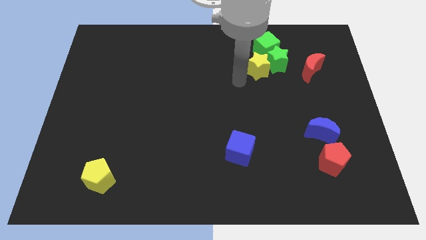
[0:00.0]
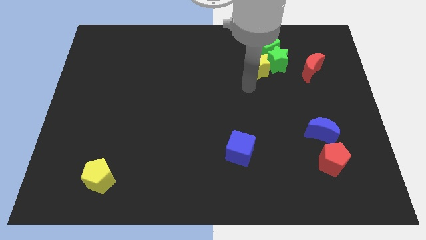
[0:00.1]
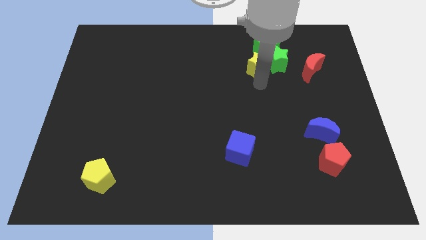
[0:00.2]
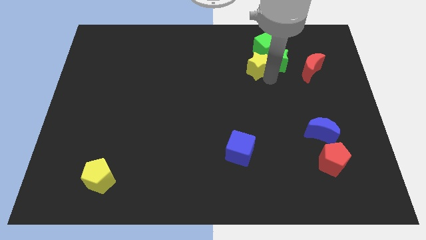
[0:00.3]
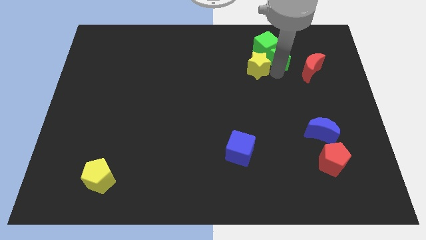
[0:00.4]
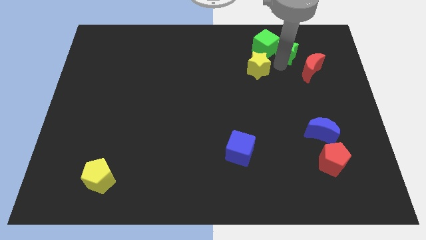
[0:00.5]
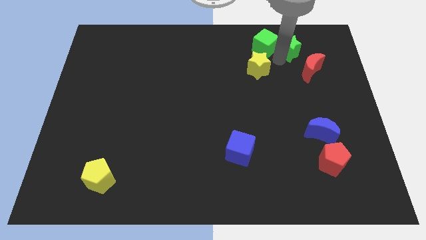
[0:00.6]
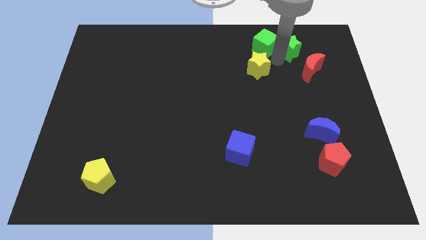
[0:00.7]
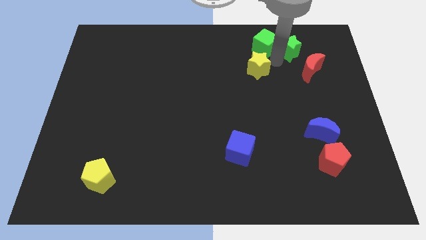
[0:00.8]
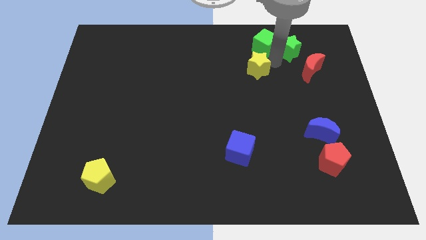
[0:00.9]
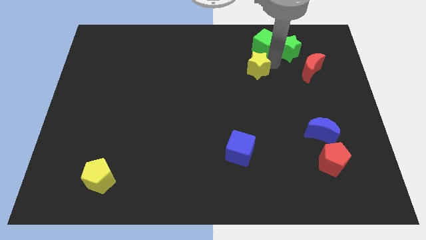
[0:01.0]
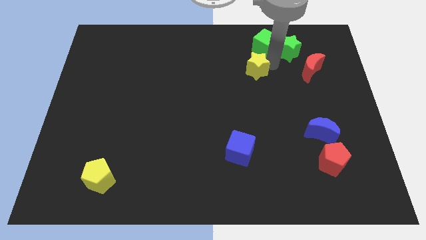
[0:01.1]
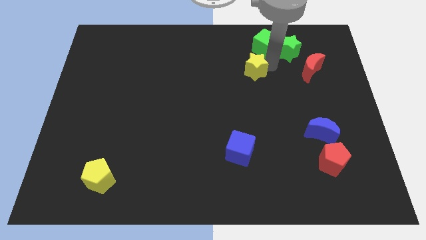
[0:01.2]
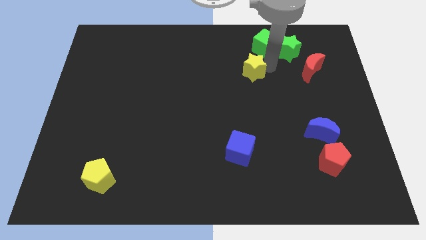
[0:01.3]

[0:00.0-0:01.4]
separate the yellow star from the green star and green cube

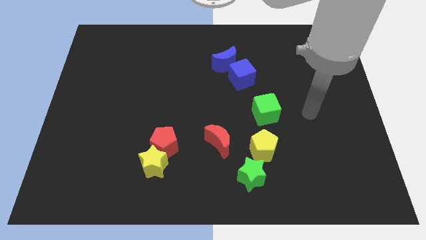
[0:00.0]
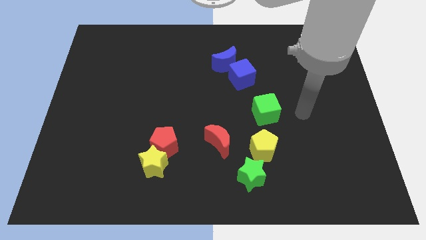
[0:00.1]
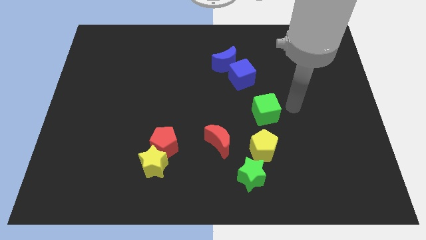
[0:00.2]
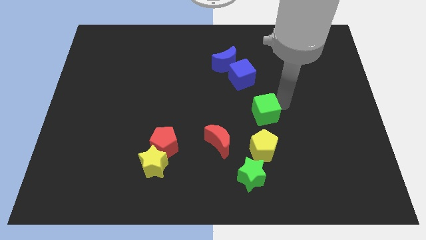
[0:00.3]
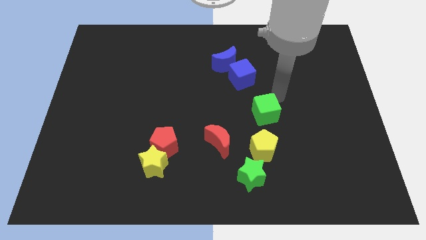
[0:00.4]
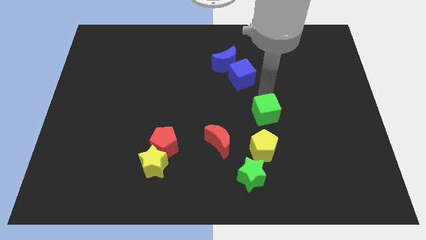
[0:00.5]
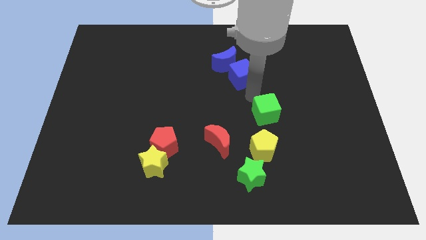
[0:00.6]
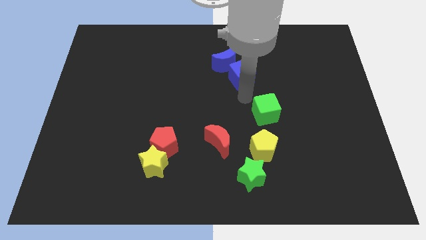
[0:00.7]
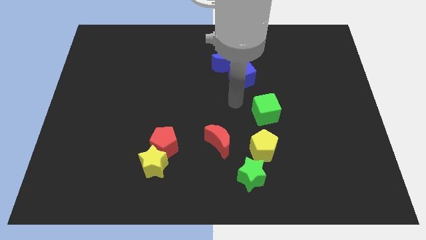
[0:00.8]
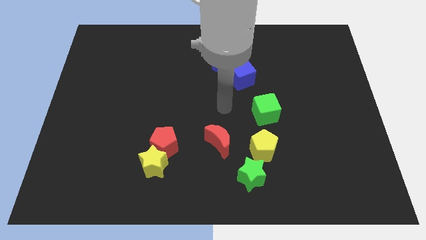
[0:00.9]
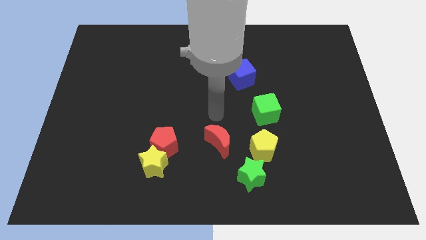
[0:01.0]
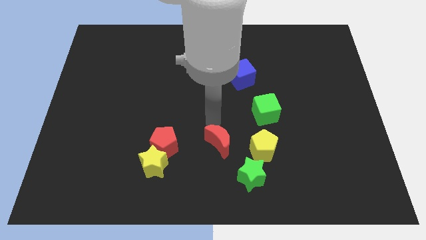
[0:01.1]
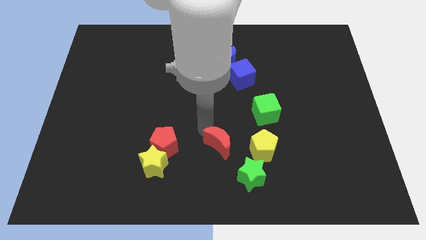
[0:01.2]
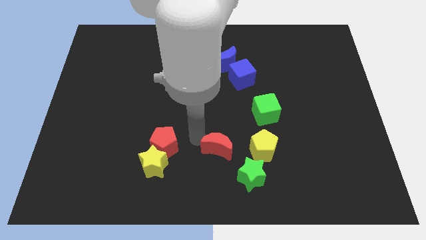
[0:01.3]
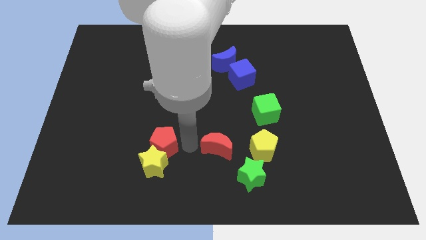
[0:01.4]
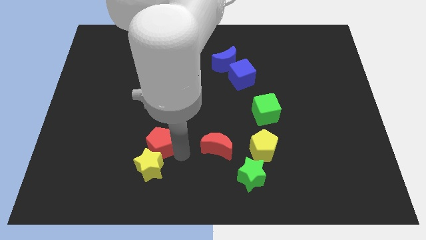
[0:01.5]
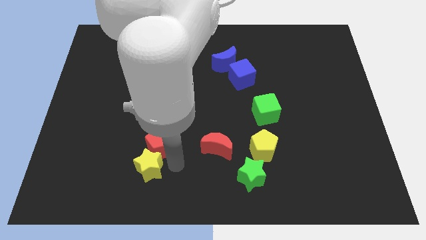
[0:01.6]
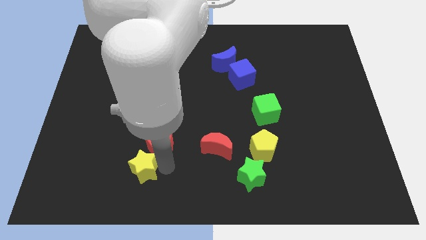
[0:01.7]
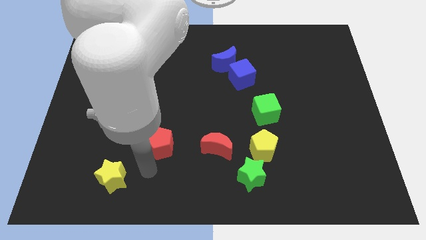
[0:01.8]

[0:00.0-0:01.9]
move the red pentagon away from the yellow star

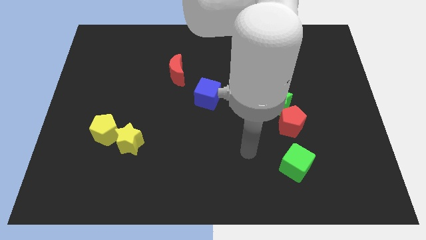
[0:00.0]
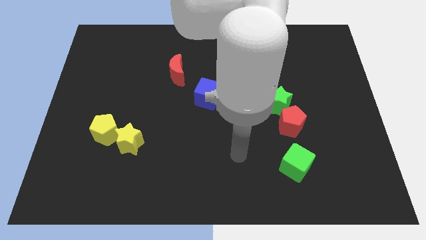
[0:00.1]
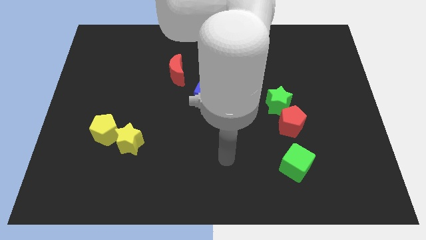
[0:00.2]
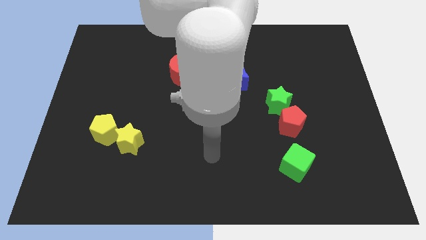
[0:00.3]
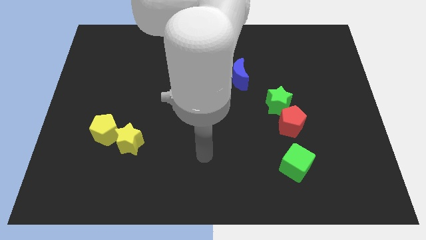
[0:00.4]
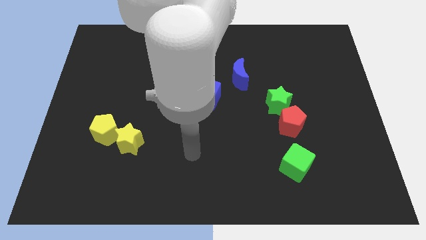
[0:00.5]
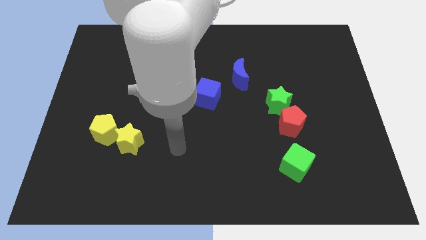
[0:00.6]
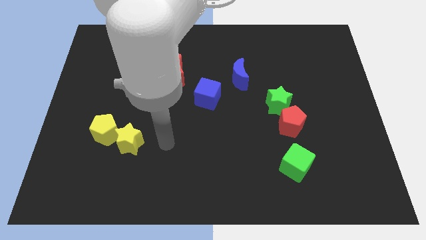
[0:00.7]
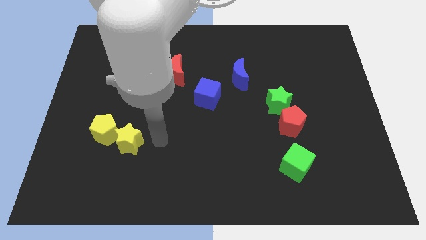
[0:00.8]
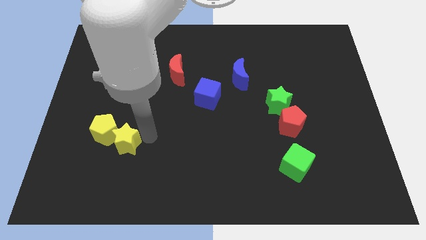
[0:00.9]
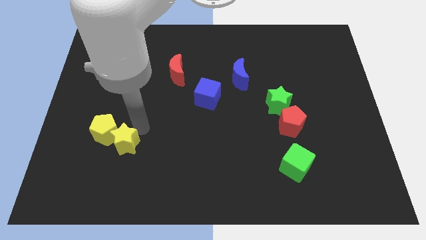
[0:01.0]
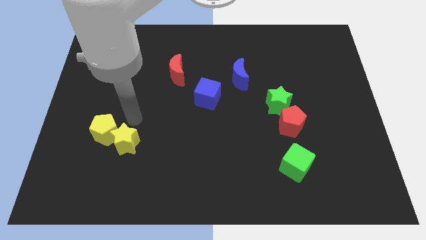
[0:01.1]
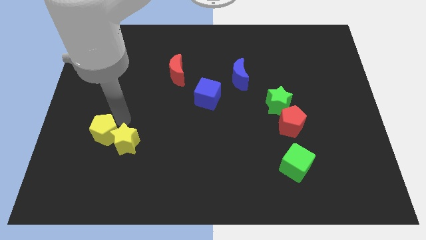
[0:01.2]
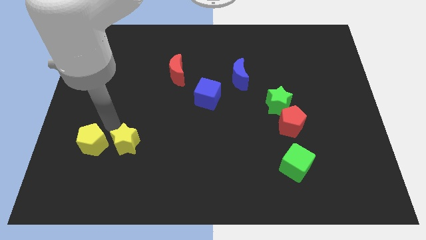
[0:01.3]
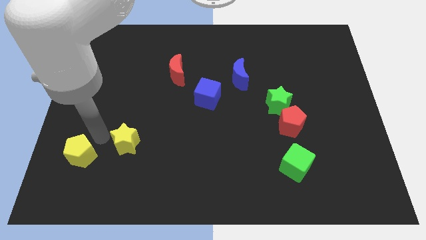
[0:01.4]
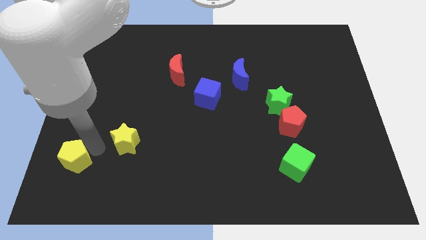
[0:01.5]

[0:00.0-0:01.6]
move the yellow star away from the yellow pentagon

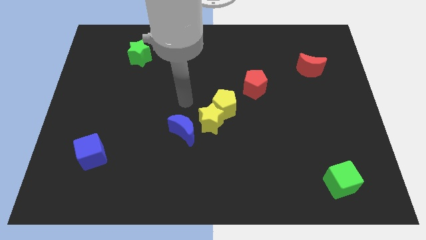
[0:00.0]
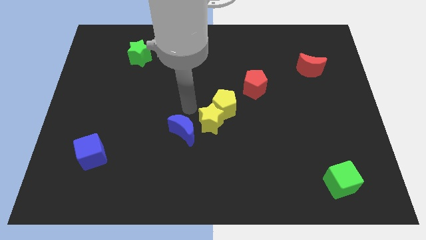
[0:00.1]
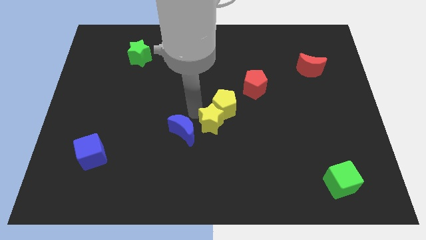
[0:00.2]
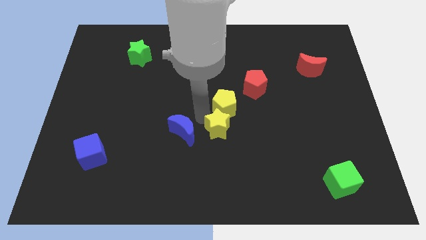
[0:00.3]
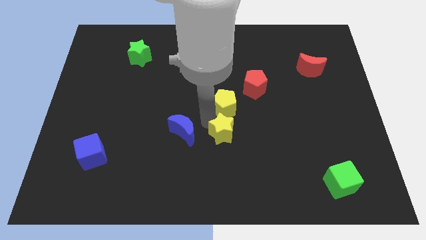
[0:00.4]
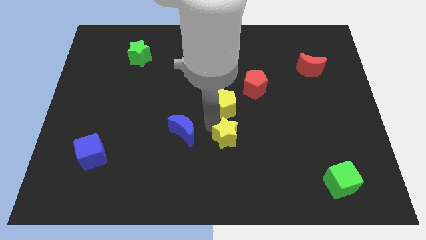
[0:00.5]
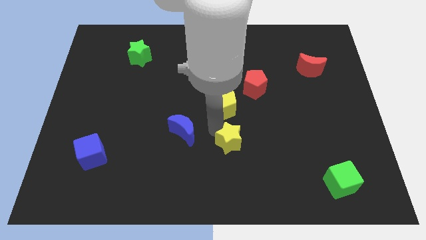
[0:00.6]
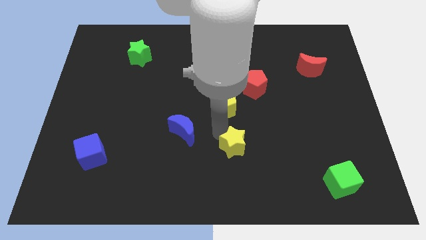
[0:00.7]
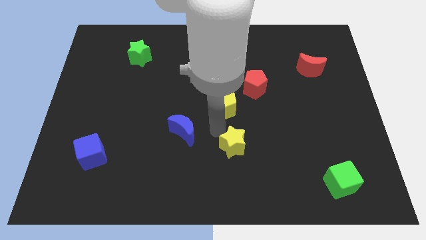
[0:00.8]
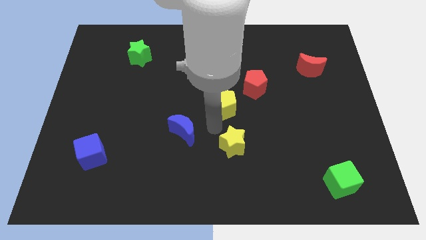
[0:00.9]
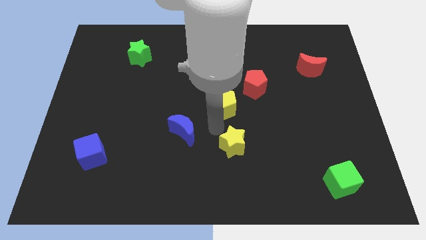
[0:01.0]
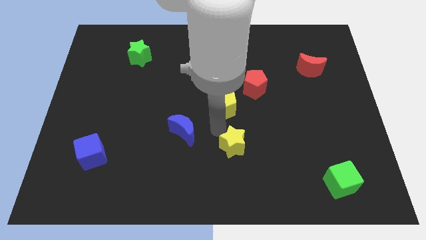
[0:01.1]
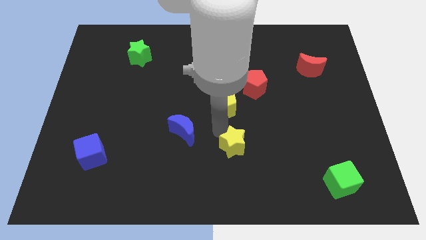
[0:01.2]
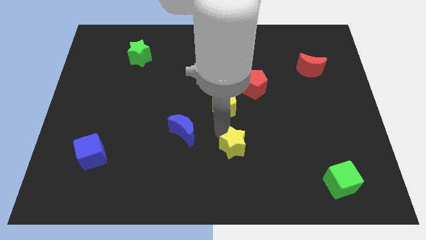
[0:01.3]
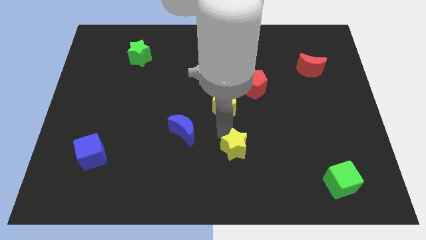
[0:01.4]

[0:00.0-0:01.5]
separate the yellow star from the yellow pentagon and blue moon

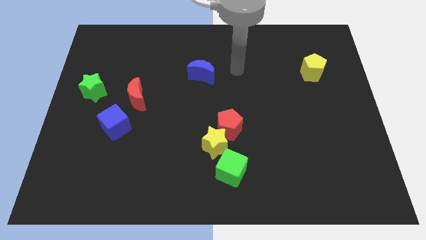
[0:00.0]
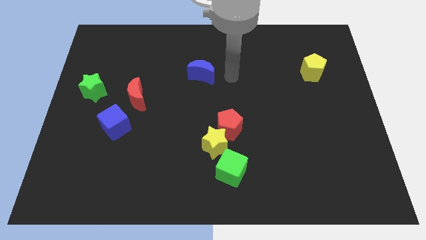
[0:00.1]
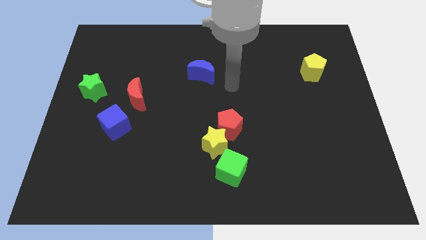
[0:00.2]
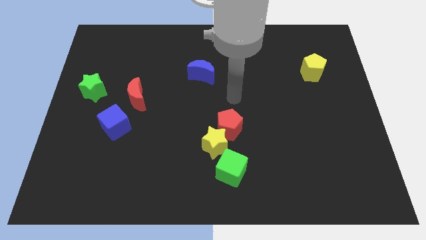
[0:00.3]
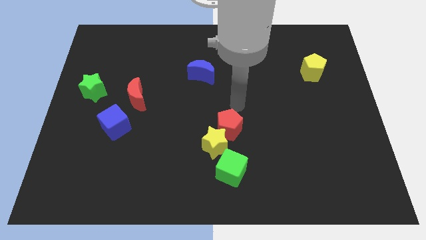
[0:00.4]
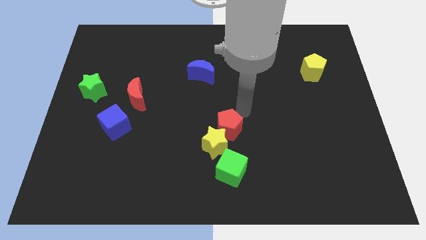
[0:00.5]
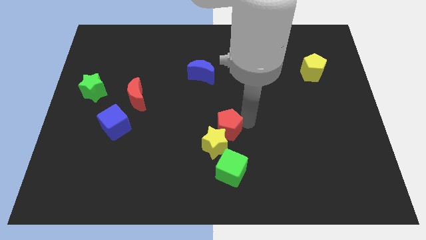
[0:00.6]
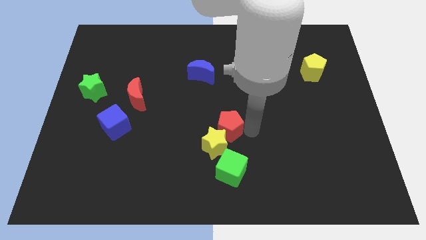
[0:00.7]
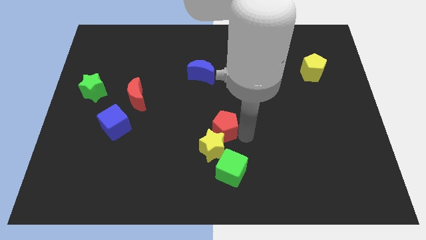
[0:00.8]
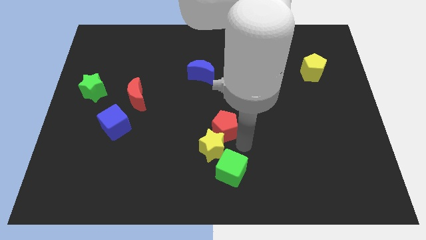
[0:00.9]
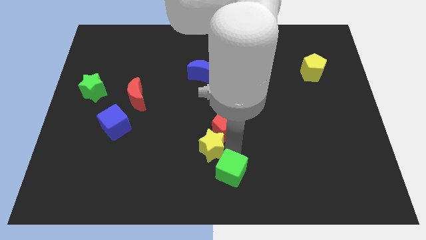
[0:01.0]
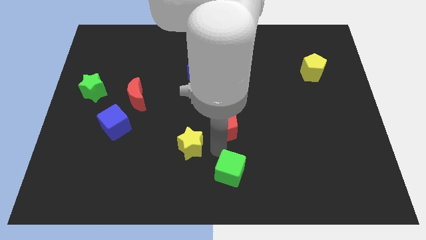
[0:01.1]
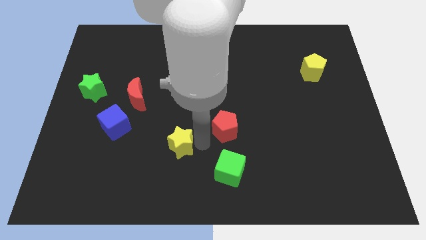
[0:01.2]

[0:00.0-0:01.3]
pull the red pentagon apart from the yellow star

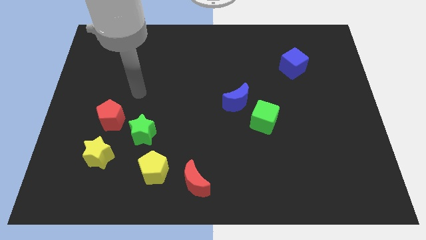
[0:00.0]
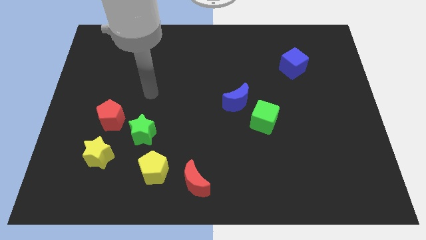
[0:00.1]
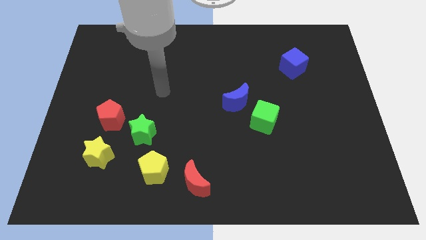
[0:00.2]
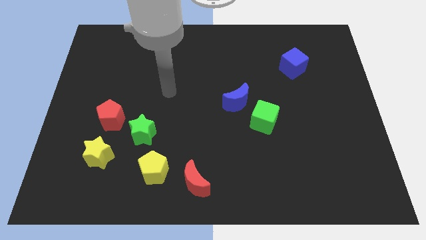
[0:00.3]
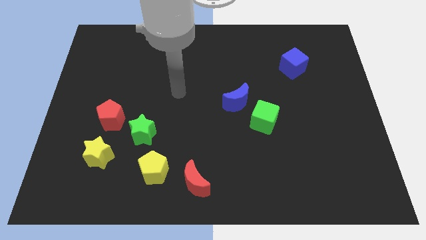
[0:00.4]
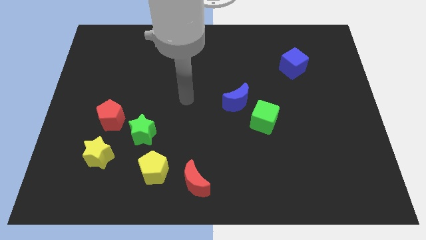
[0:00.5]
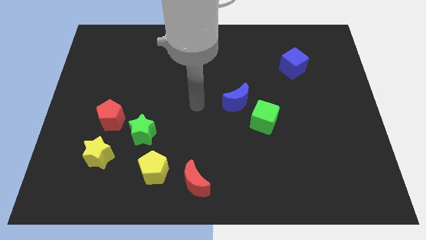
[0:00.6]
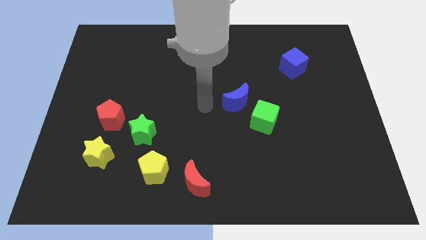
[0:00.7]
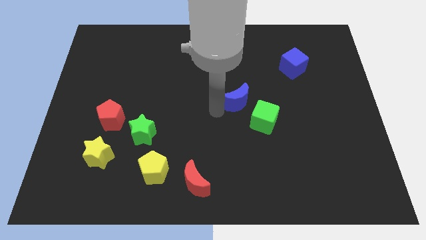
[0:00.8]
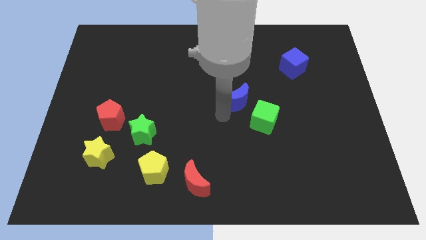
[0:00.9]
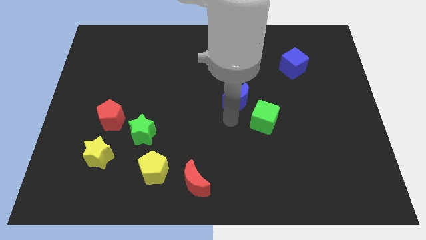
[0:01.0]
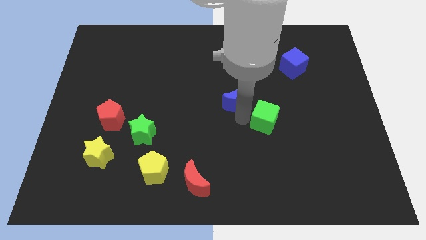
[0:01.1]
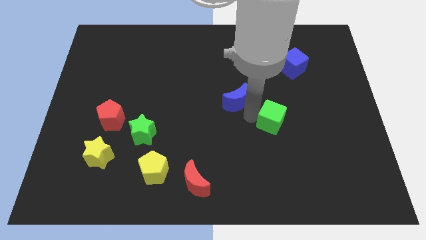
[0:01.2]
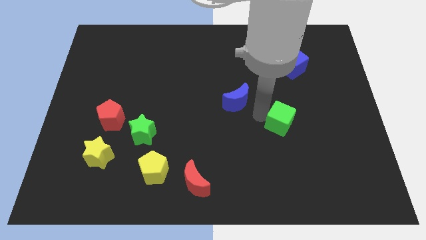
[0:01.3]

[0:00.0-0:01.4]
pull the blue moon apart from the green cube

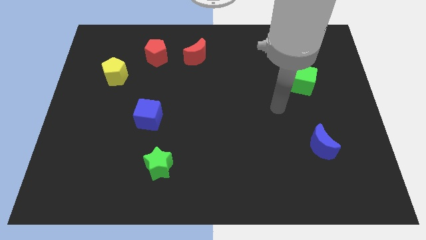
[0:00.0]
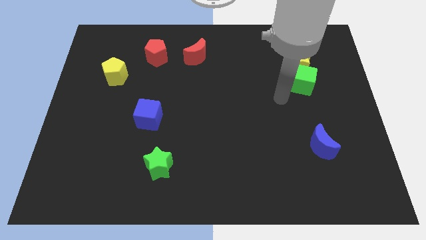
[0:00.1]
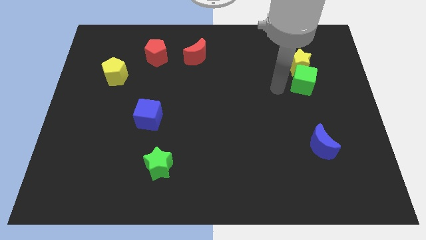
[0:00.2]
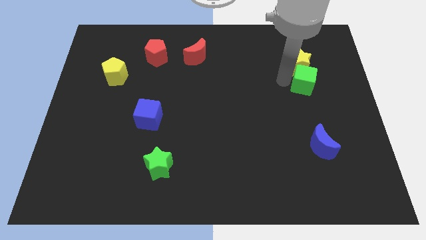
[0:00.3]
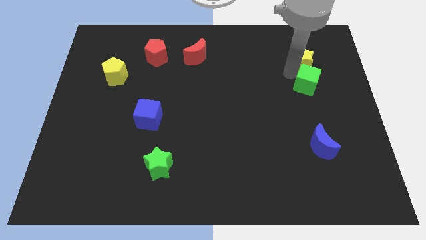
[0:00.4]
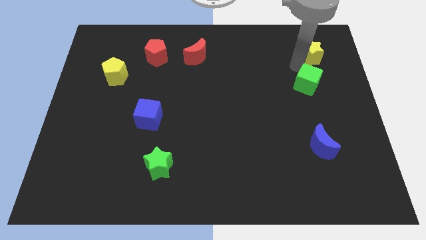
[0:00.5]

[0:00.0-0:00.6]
pull the green cube apart from the yellow star
